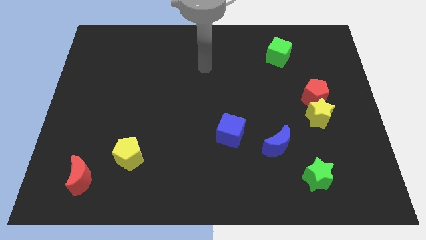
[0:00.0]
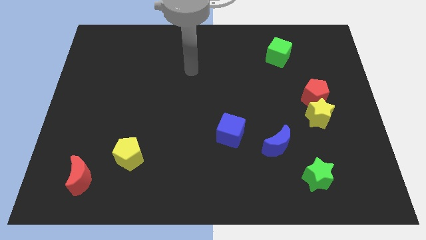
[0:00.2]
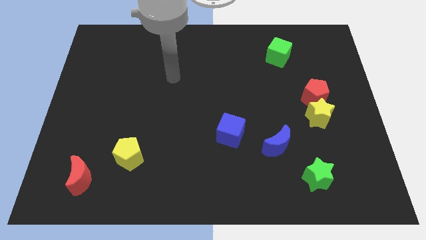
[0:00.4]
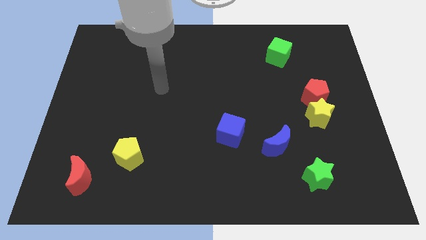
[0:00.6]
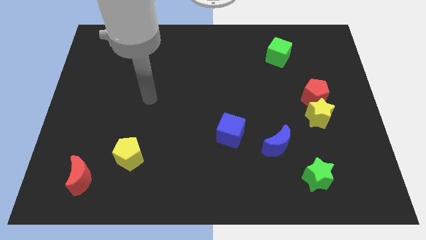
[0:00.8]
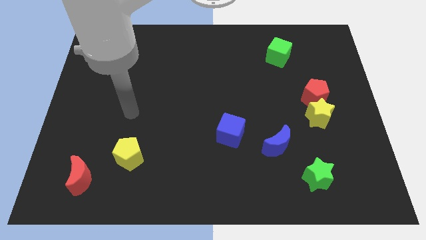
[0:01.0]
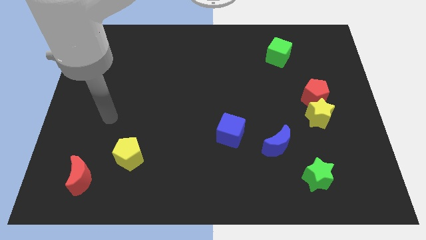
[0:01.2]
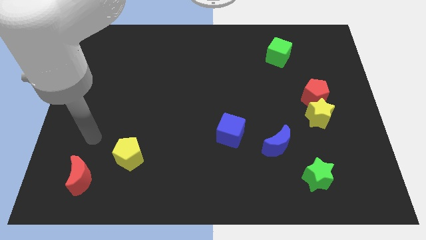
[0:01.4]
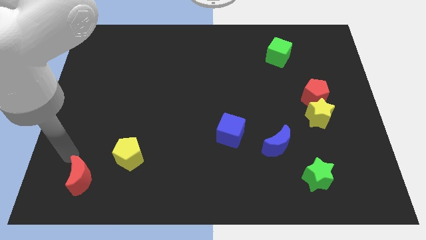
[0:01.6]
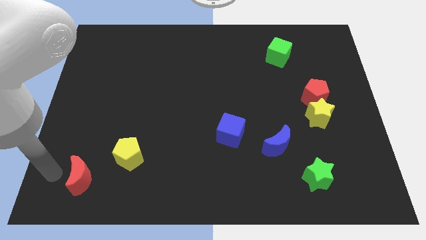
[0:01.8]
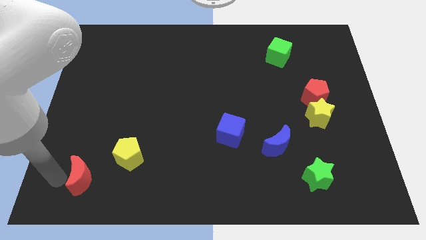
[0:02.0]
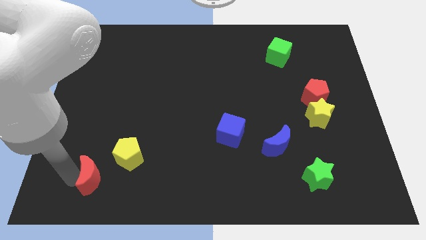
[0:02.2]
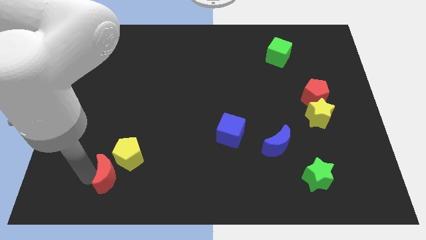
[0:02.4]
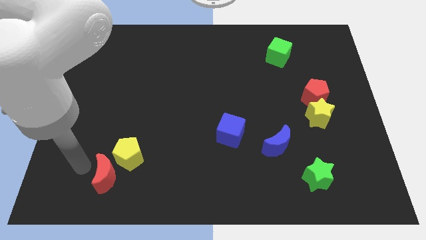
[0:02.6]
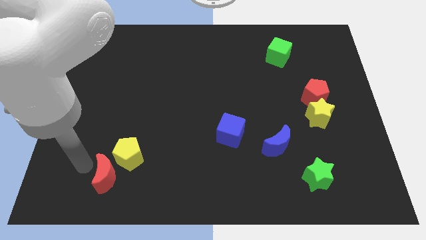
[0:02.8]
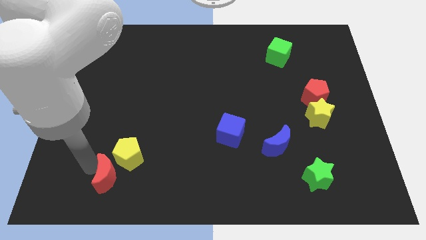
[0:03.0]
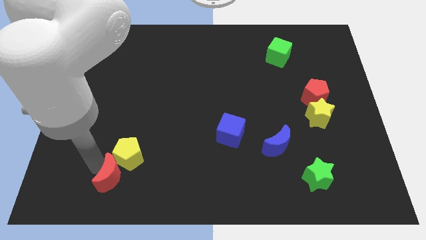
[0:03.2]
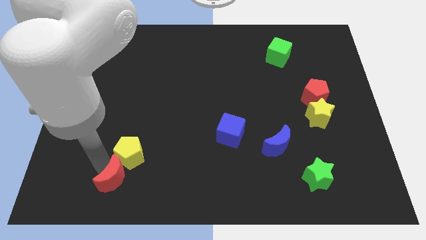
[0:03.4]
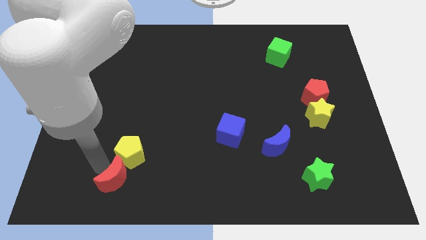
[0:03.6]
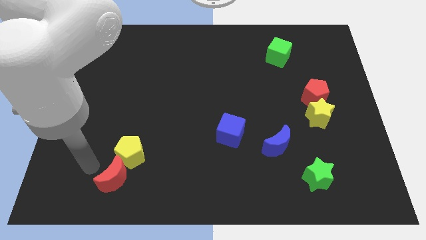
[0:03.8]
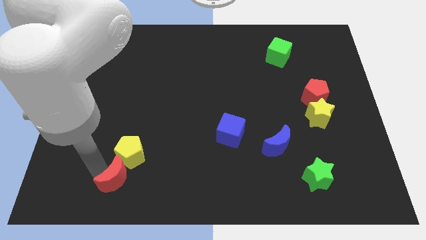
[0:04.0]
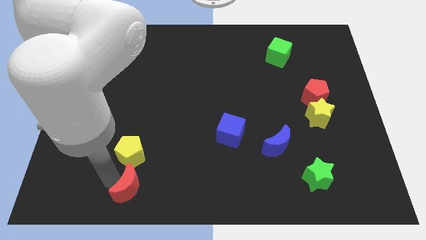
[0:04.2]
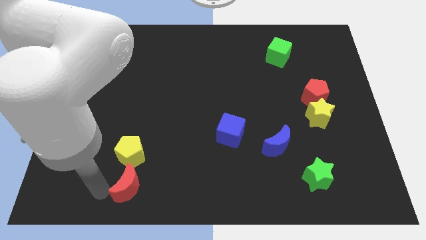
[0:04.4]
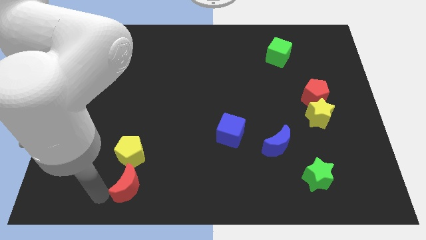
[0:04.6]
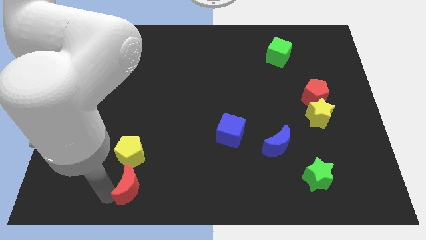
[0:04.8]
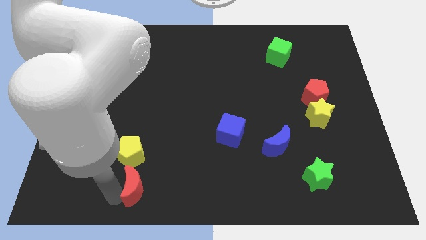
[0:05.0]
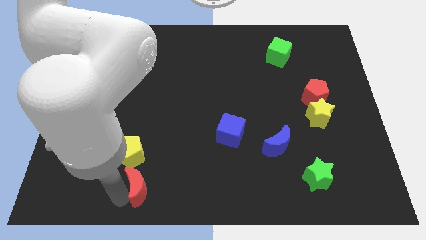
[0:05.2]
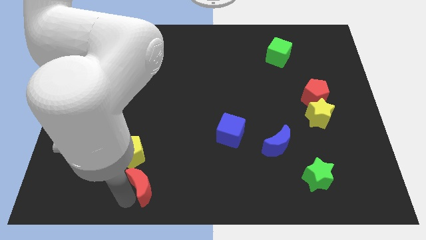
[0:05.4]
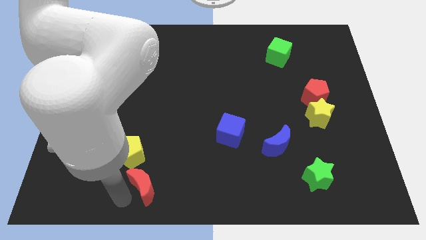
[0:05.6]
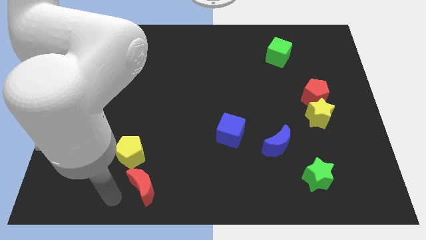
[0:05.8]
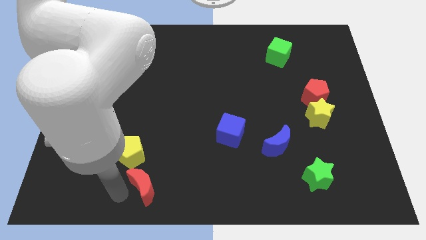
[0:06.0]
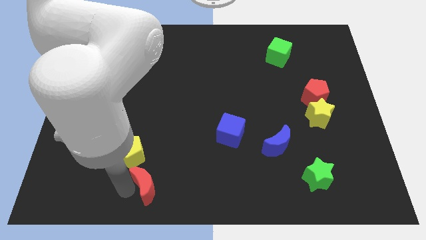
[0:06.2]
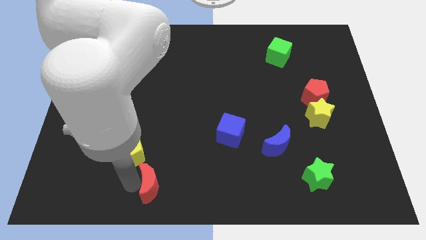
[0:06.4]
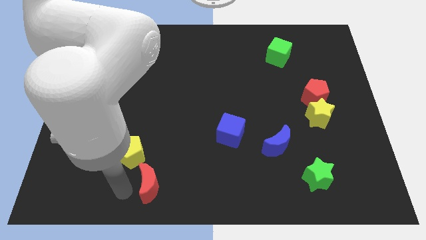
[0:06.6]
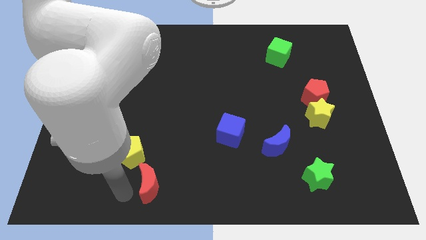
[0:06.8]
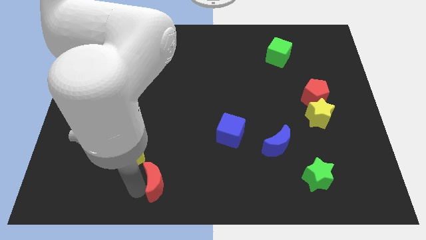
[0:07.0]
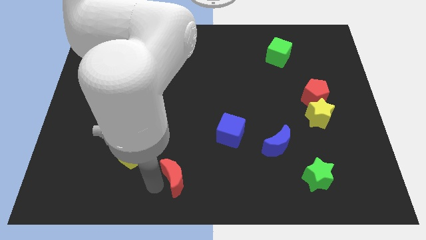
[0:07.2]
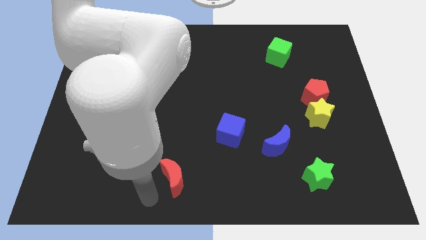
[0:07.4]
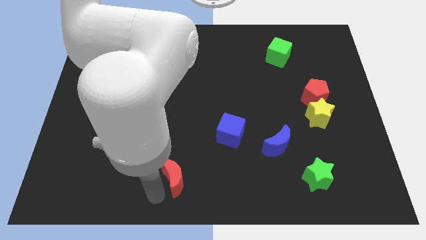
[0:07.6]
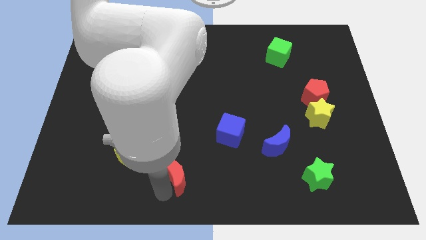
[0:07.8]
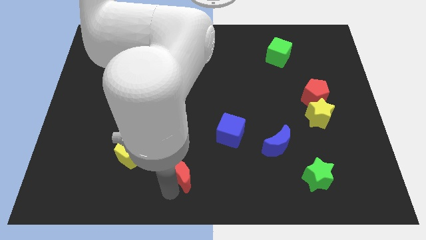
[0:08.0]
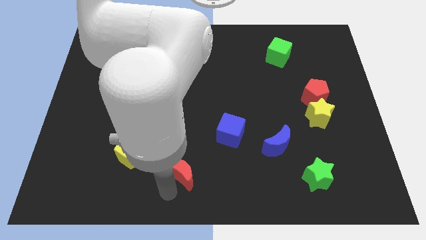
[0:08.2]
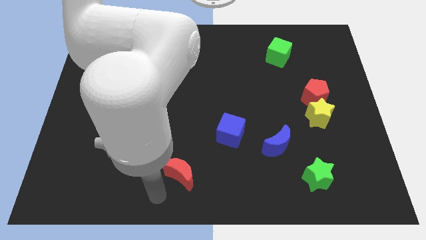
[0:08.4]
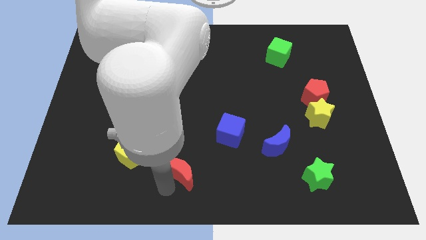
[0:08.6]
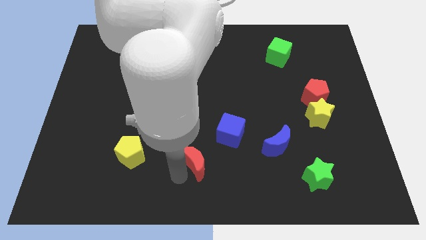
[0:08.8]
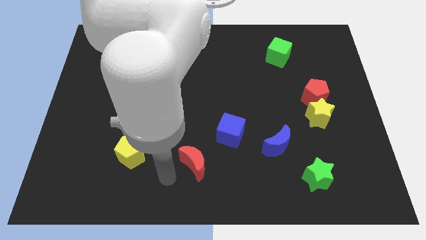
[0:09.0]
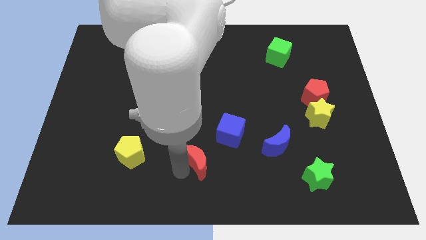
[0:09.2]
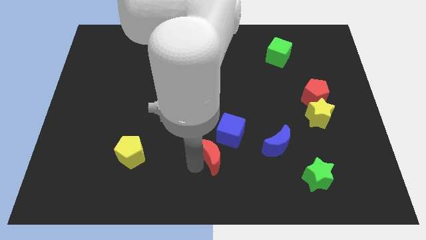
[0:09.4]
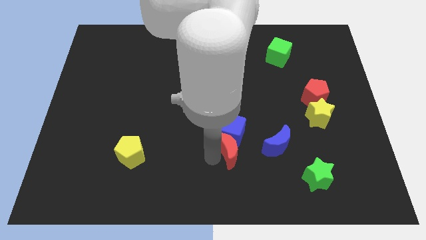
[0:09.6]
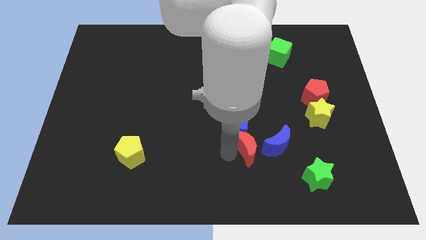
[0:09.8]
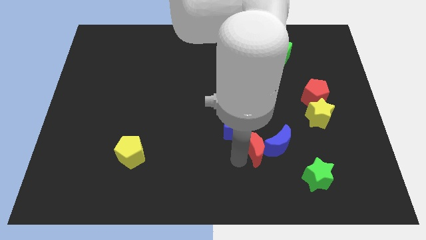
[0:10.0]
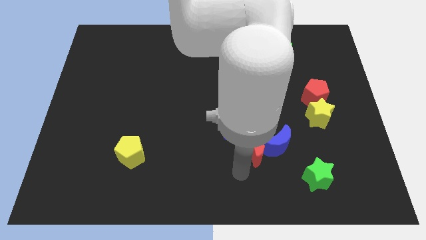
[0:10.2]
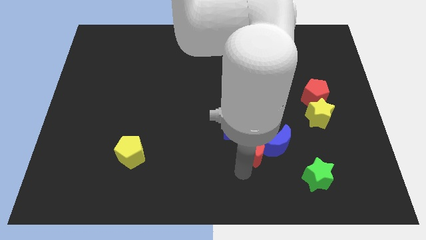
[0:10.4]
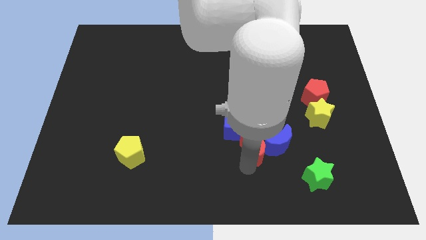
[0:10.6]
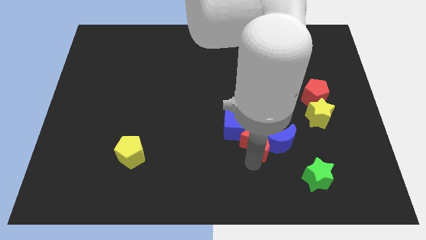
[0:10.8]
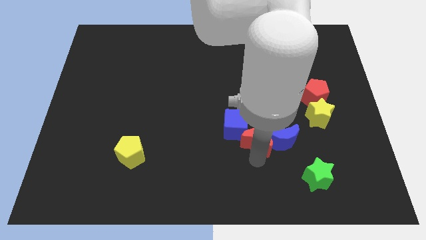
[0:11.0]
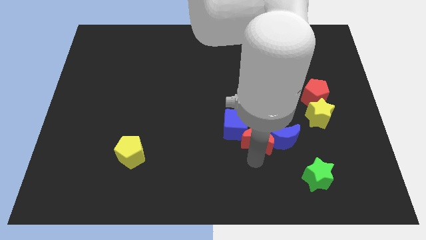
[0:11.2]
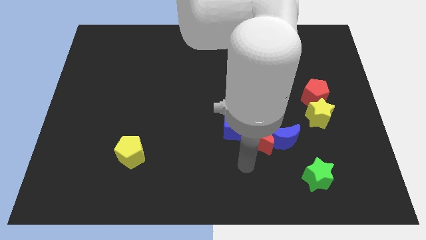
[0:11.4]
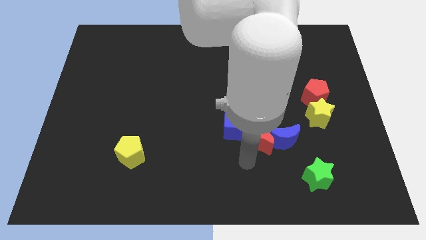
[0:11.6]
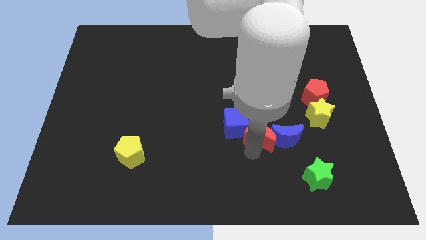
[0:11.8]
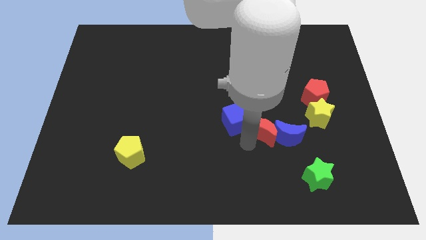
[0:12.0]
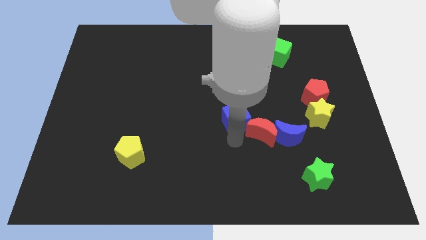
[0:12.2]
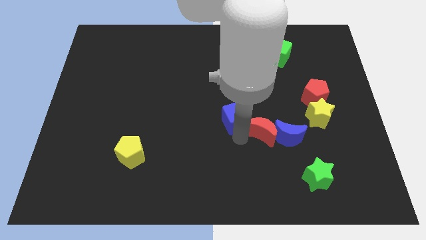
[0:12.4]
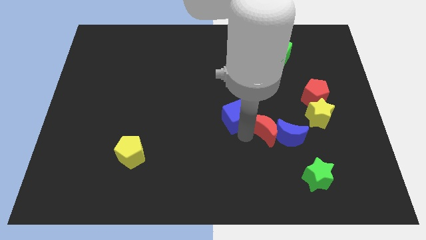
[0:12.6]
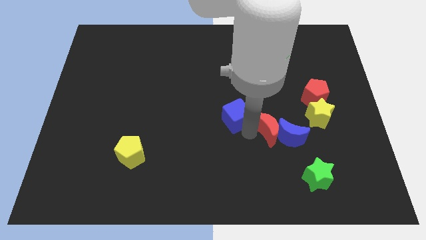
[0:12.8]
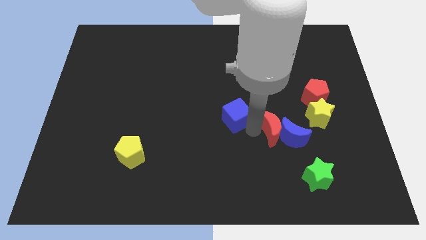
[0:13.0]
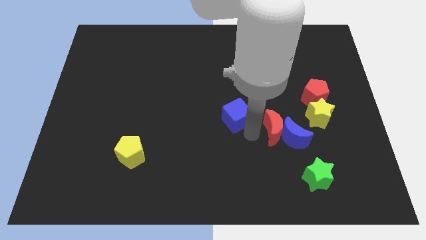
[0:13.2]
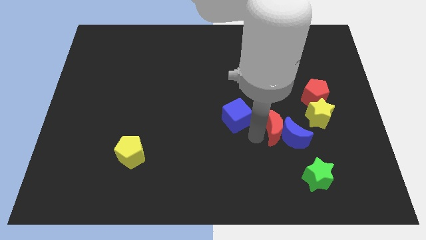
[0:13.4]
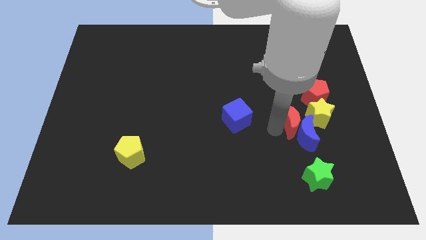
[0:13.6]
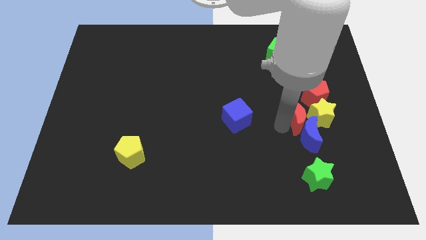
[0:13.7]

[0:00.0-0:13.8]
slide the red moon next to the yellow star

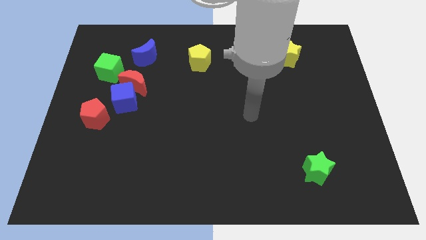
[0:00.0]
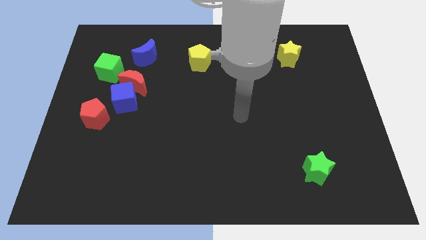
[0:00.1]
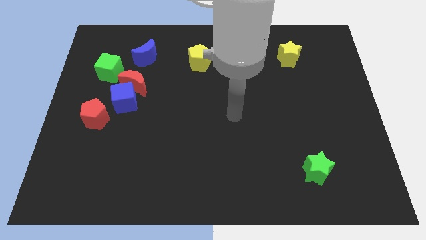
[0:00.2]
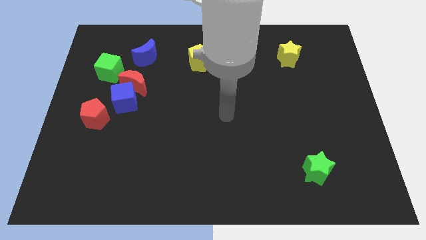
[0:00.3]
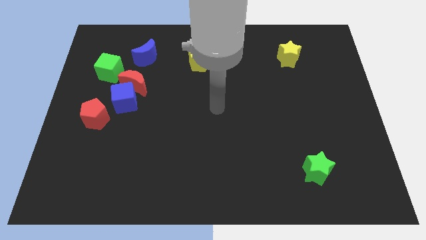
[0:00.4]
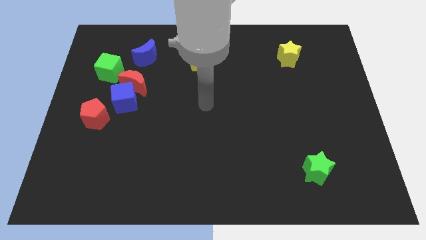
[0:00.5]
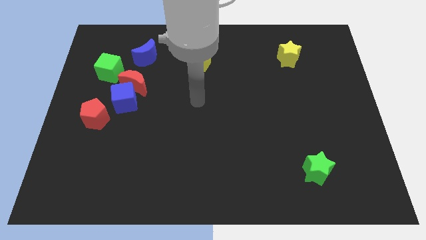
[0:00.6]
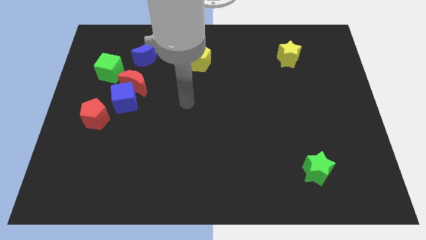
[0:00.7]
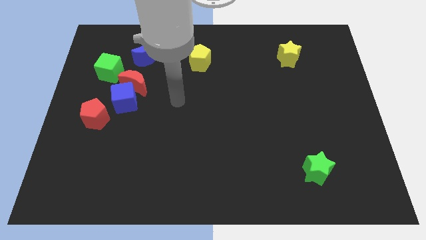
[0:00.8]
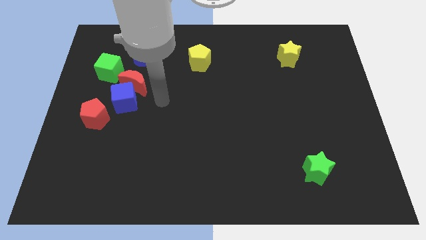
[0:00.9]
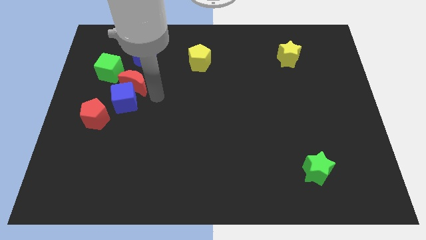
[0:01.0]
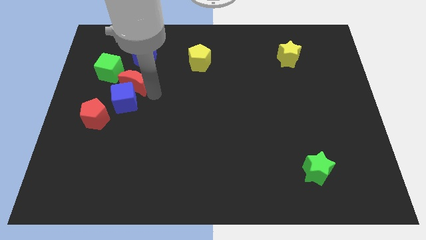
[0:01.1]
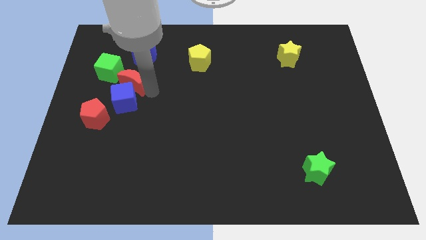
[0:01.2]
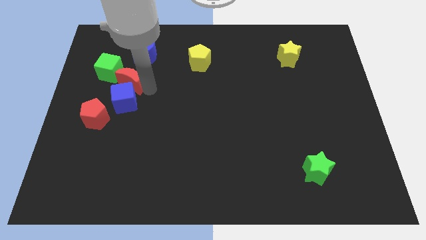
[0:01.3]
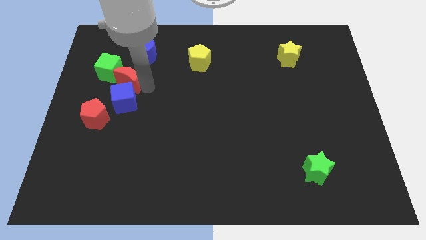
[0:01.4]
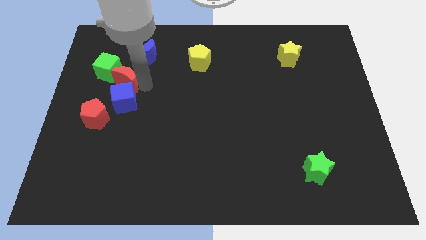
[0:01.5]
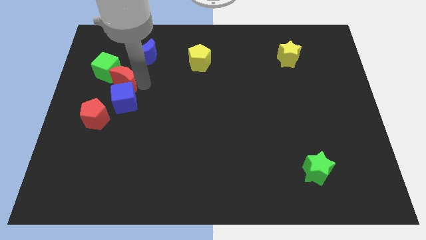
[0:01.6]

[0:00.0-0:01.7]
push the red moon close to the green cube
